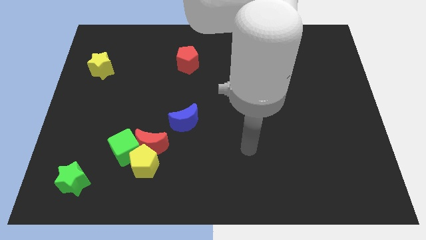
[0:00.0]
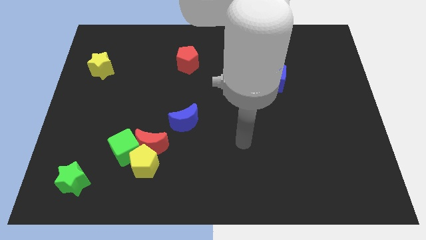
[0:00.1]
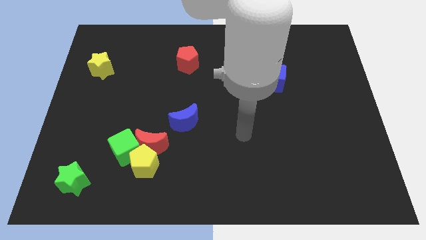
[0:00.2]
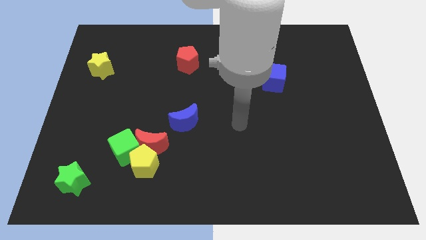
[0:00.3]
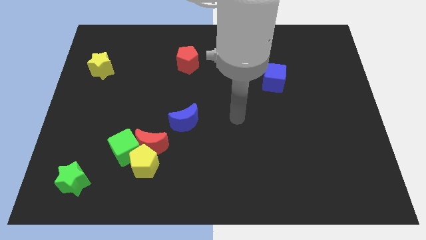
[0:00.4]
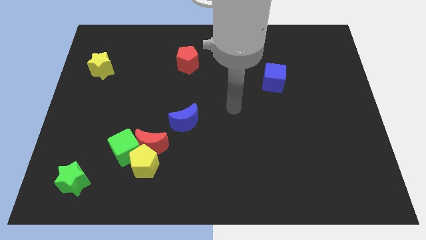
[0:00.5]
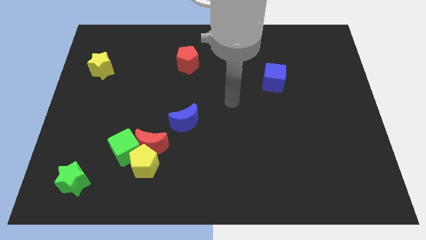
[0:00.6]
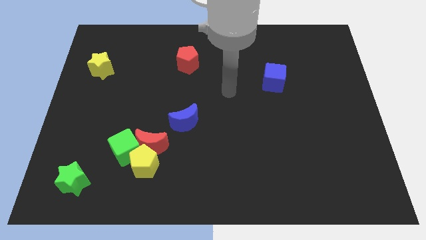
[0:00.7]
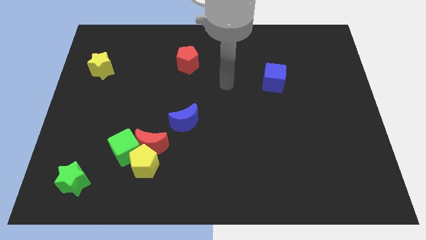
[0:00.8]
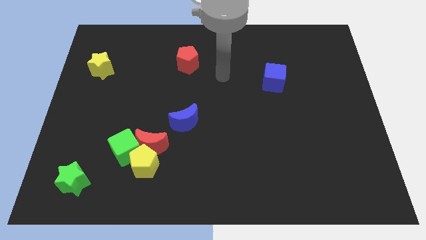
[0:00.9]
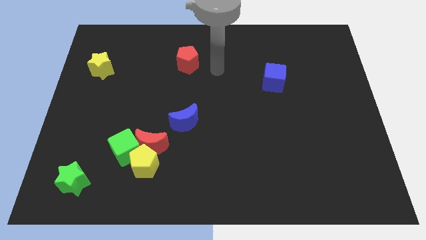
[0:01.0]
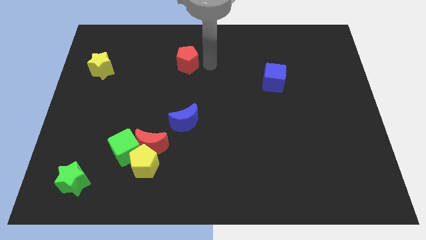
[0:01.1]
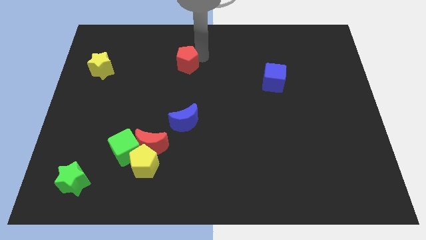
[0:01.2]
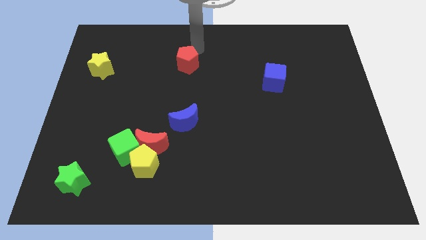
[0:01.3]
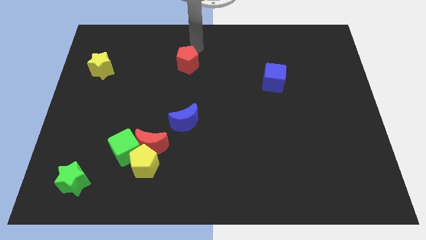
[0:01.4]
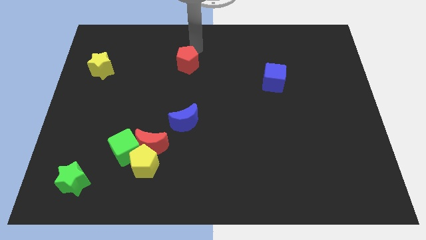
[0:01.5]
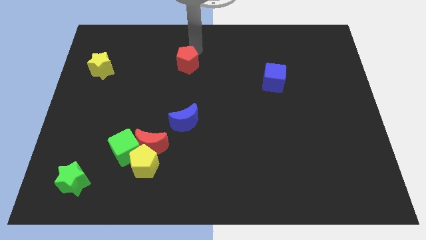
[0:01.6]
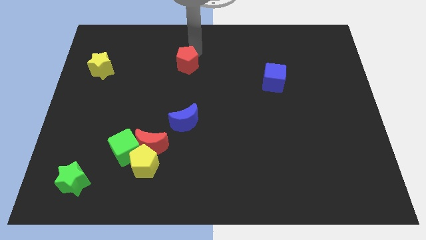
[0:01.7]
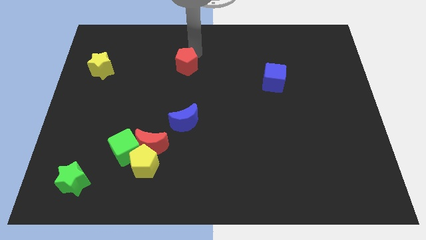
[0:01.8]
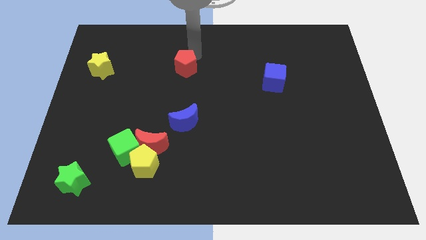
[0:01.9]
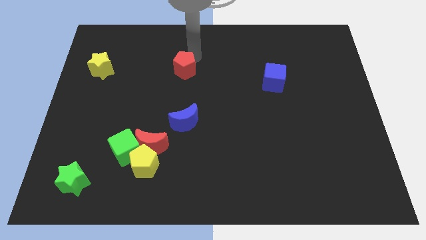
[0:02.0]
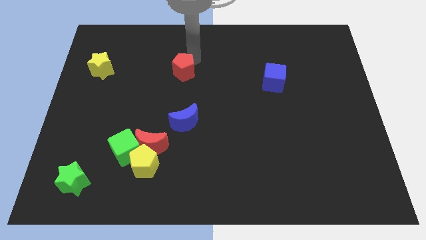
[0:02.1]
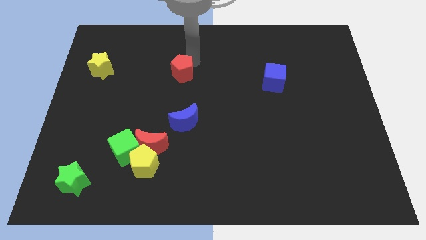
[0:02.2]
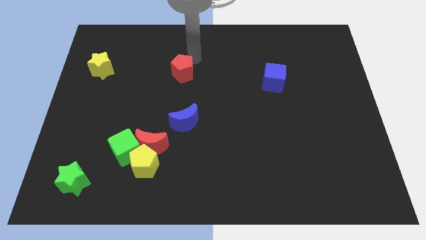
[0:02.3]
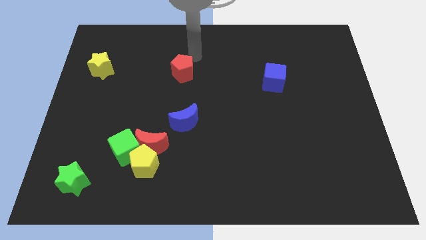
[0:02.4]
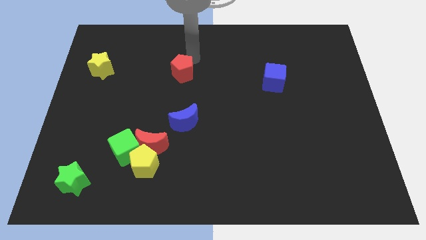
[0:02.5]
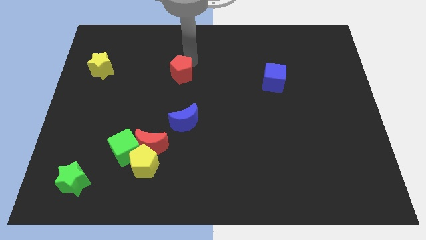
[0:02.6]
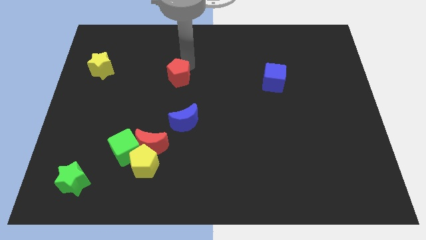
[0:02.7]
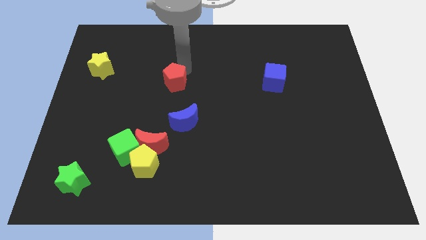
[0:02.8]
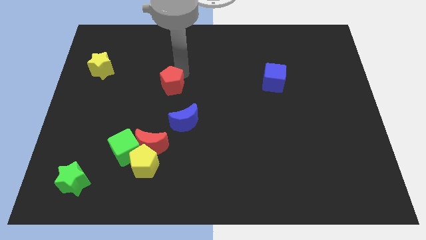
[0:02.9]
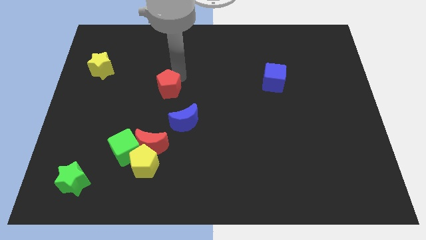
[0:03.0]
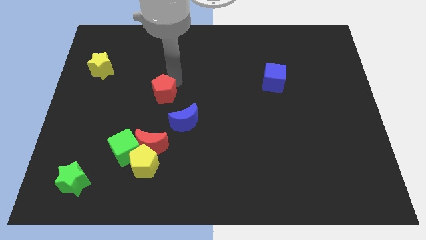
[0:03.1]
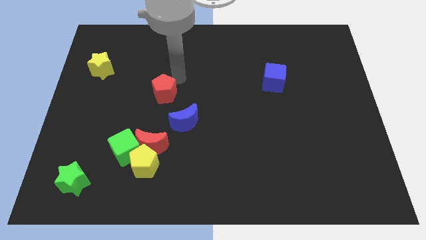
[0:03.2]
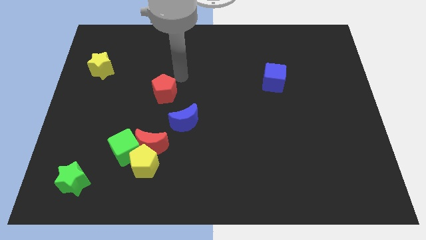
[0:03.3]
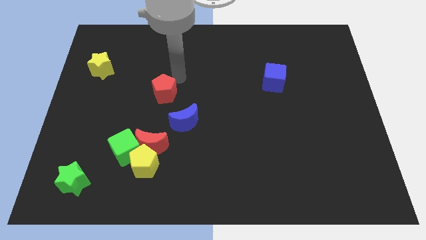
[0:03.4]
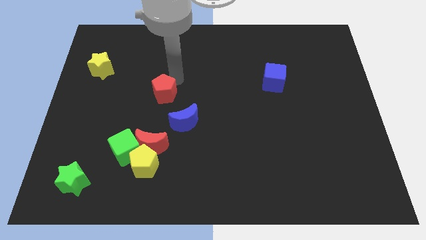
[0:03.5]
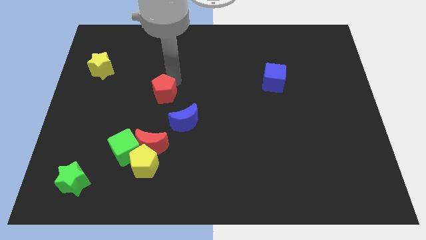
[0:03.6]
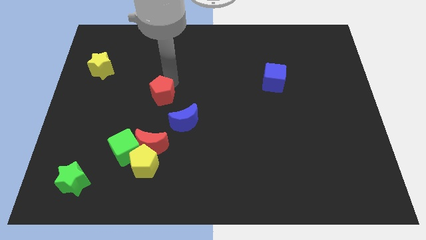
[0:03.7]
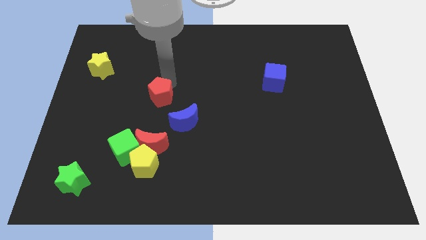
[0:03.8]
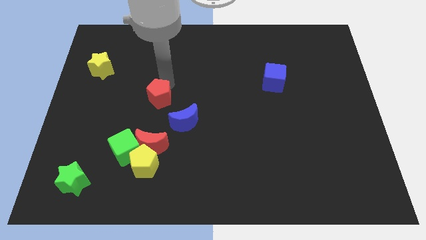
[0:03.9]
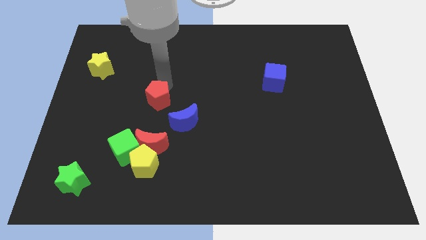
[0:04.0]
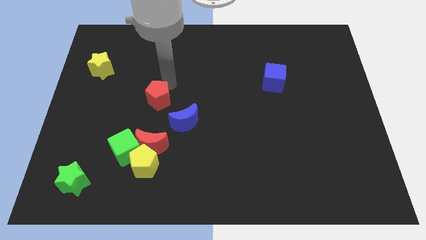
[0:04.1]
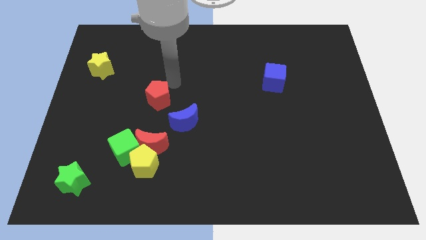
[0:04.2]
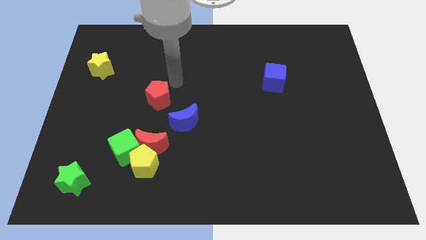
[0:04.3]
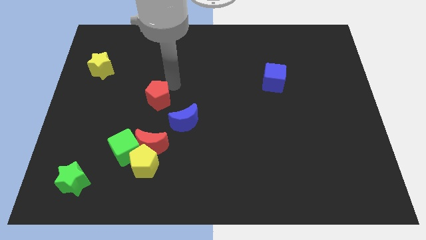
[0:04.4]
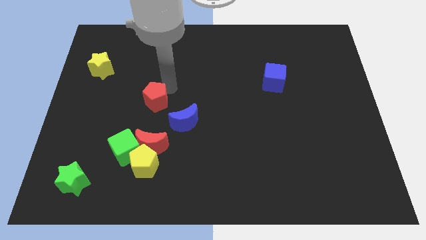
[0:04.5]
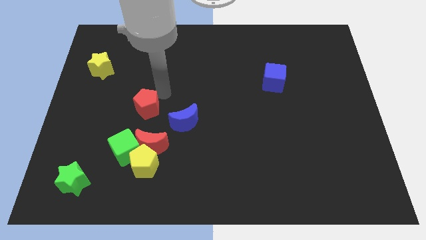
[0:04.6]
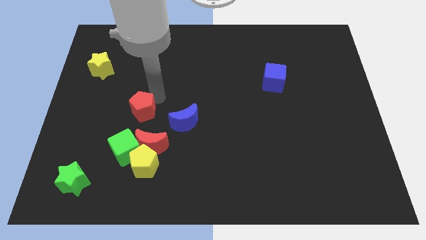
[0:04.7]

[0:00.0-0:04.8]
put the red pentagon to the top left side of the red moon

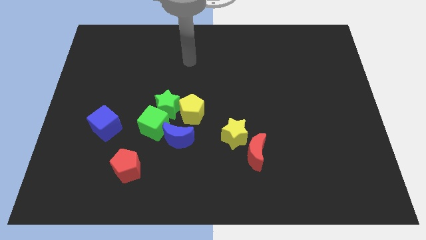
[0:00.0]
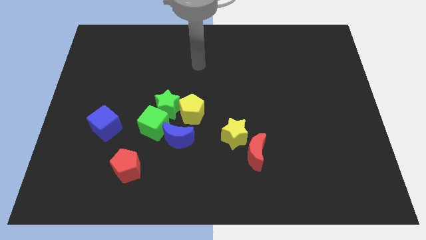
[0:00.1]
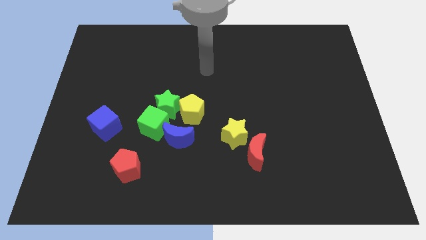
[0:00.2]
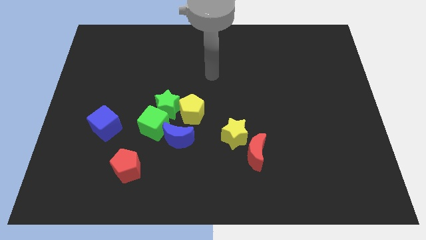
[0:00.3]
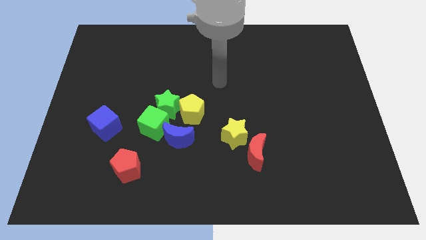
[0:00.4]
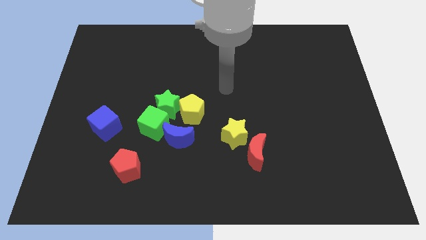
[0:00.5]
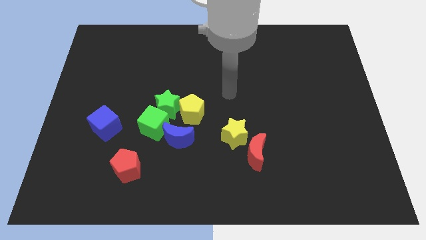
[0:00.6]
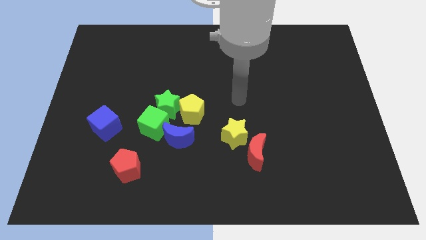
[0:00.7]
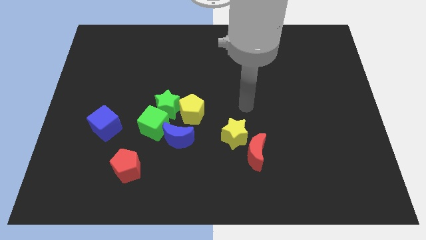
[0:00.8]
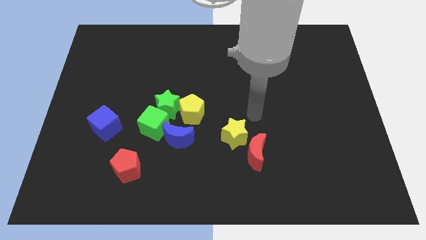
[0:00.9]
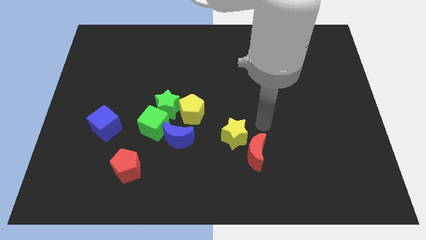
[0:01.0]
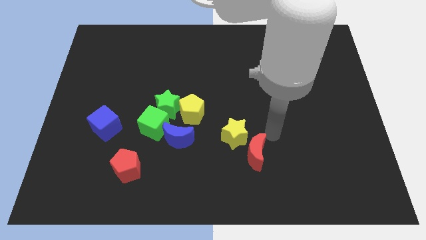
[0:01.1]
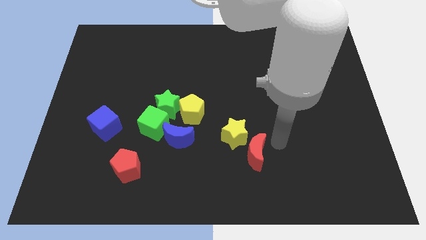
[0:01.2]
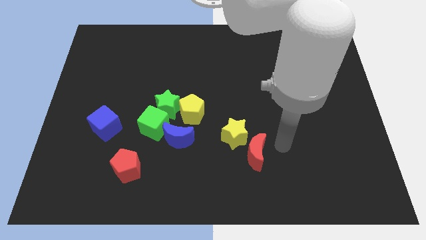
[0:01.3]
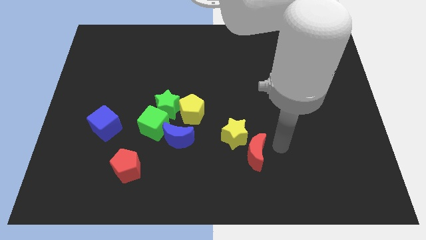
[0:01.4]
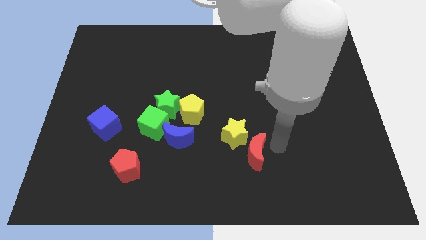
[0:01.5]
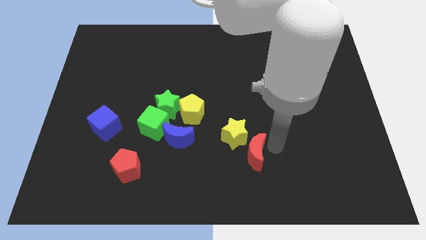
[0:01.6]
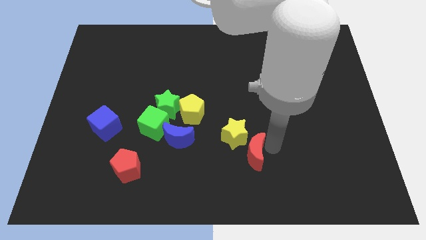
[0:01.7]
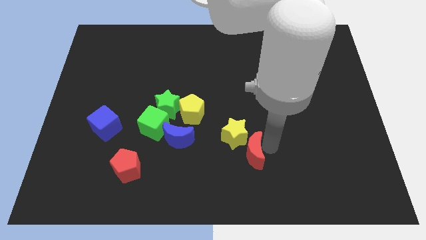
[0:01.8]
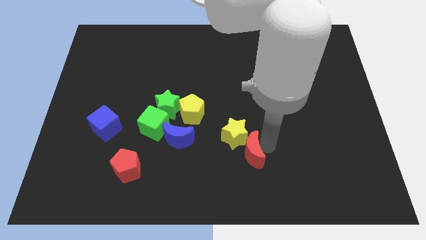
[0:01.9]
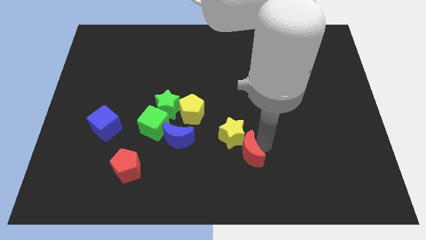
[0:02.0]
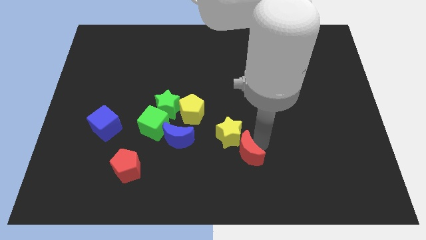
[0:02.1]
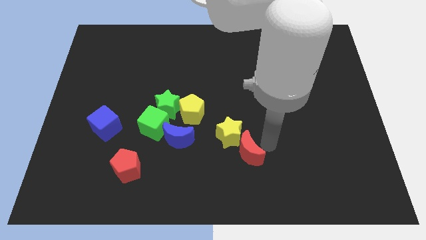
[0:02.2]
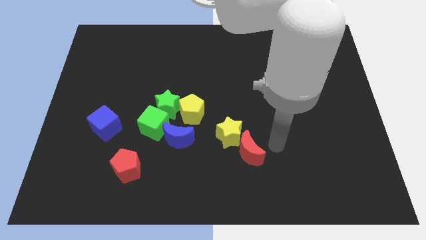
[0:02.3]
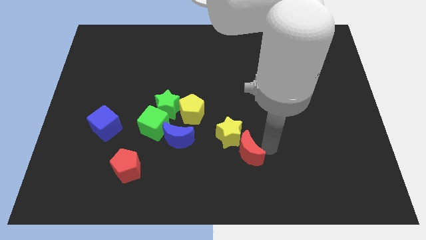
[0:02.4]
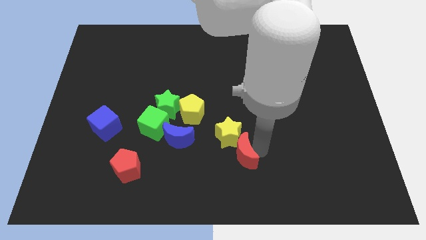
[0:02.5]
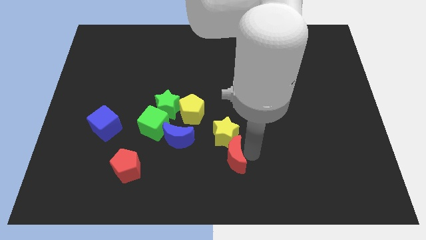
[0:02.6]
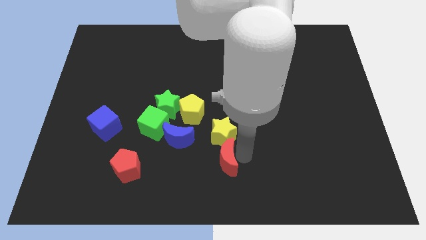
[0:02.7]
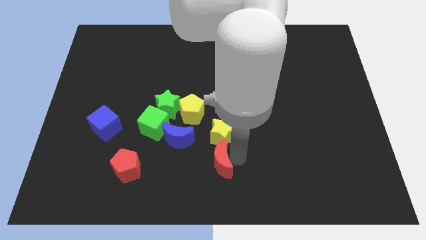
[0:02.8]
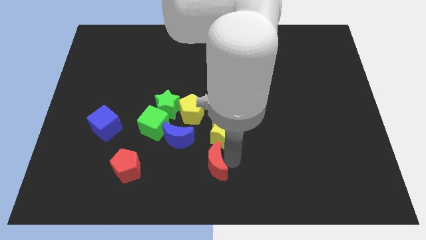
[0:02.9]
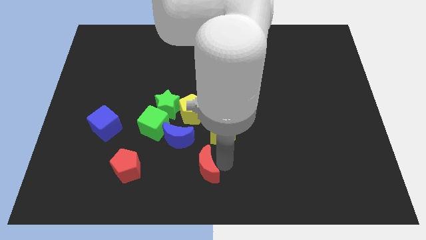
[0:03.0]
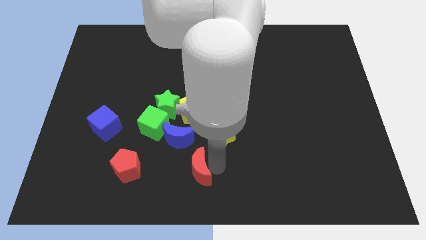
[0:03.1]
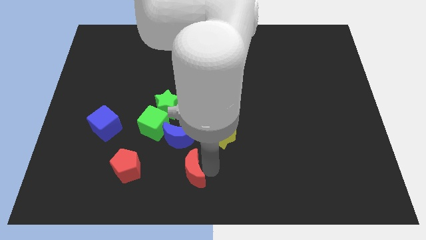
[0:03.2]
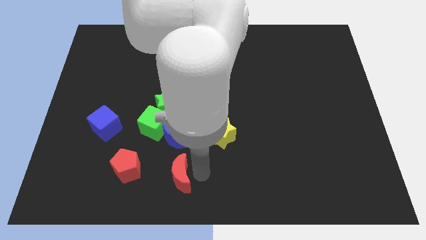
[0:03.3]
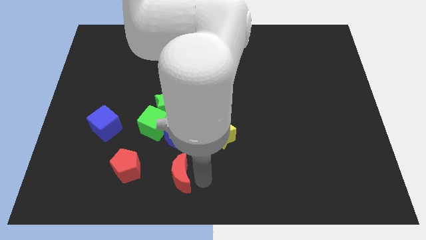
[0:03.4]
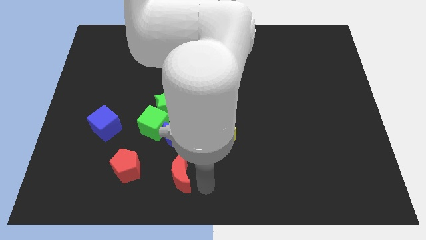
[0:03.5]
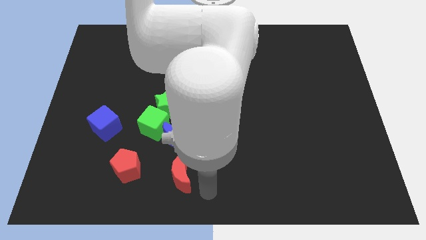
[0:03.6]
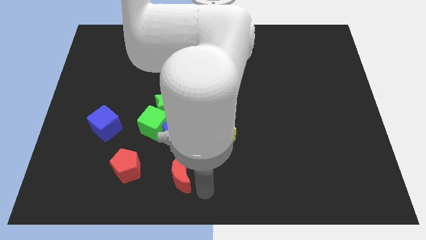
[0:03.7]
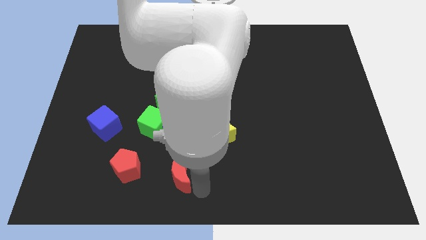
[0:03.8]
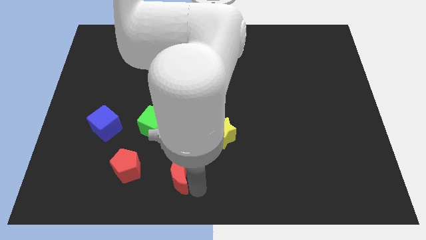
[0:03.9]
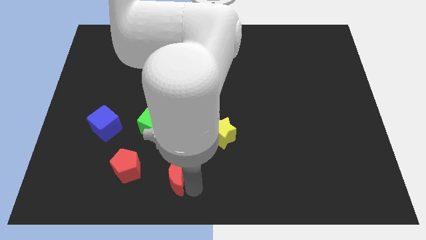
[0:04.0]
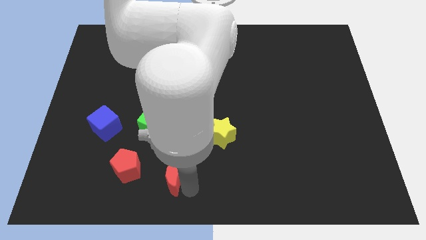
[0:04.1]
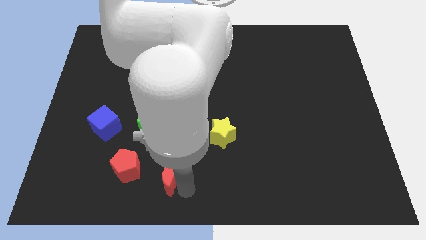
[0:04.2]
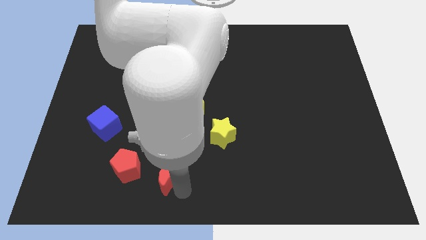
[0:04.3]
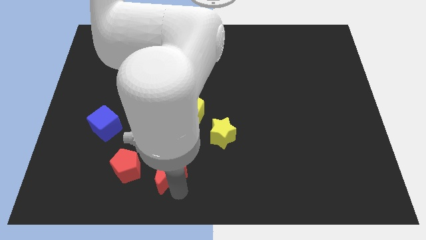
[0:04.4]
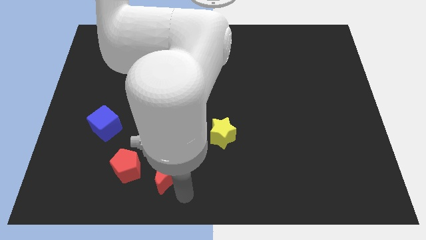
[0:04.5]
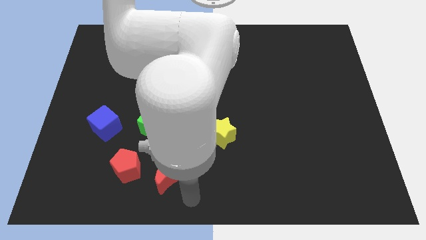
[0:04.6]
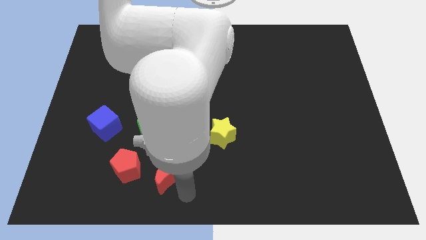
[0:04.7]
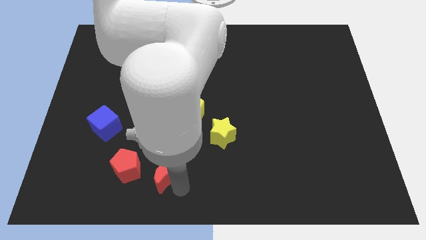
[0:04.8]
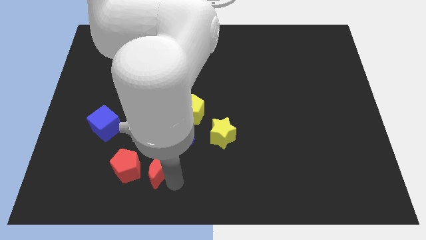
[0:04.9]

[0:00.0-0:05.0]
put the red moon diagonally down and to the left of the blue moon
